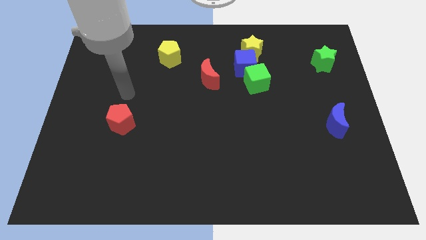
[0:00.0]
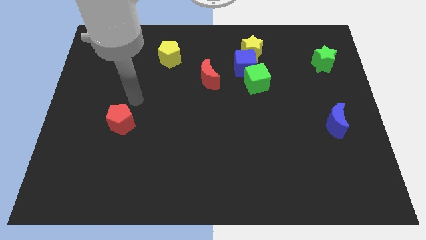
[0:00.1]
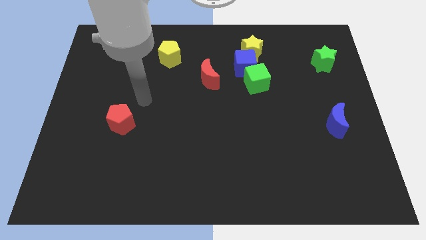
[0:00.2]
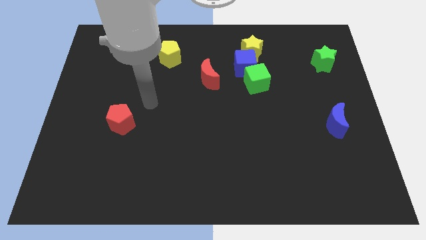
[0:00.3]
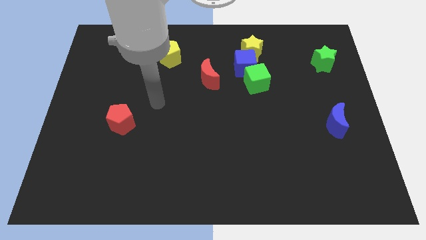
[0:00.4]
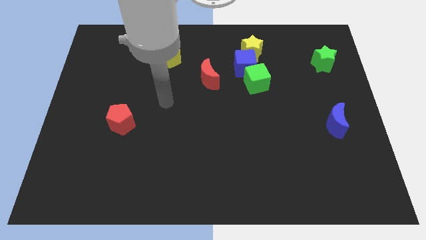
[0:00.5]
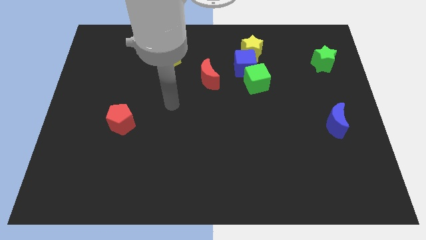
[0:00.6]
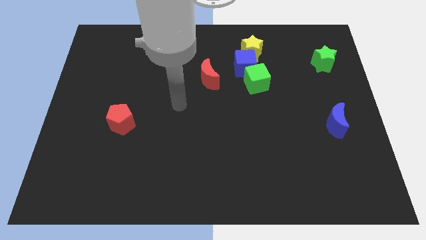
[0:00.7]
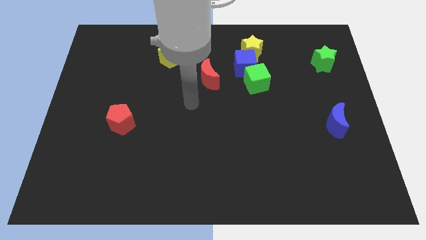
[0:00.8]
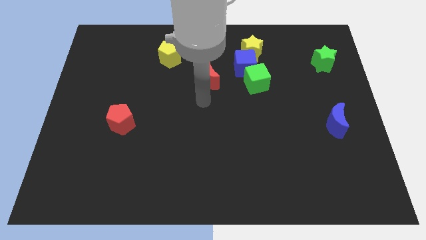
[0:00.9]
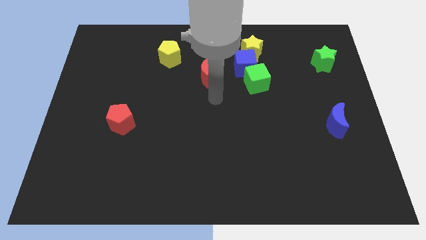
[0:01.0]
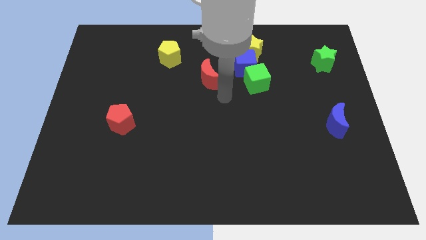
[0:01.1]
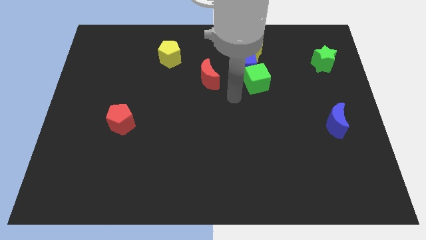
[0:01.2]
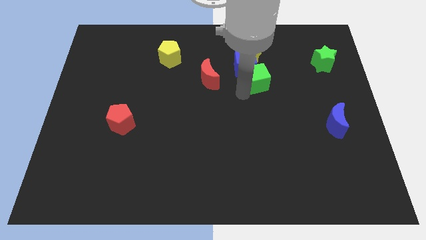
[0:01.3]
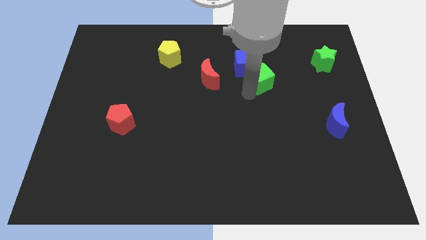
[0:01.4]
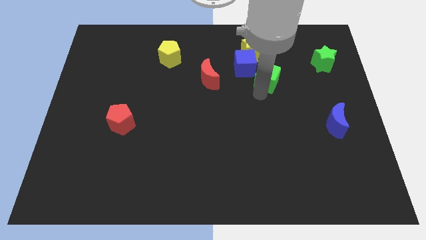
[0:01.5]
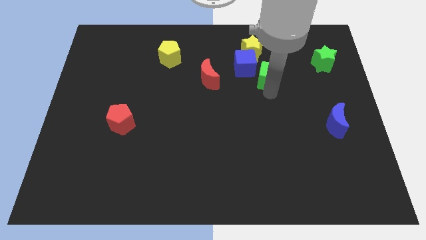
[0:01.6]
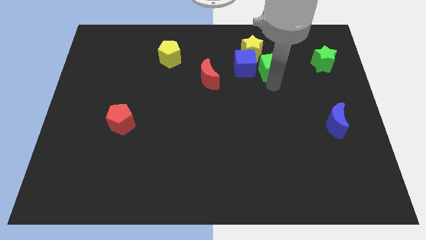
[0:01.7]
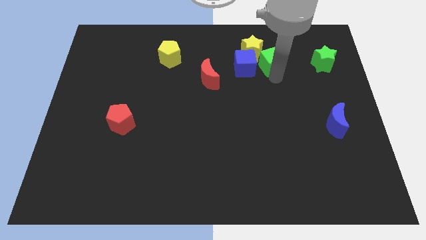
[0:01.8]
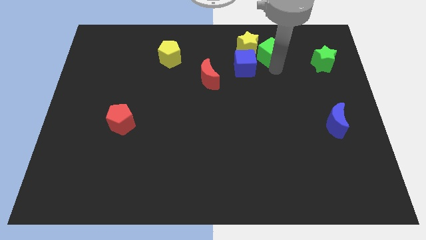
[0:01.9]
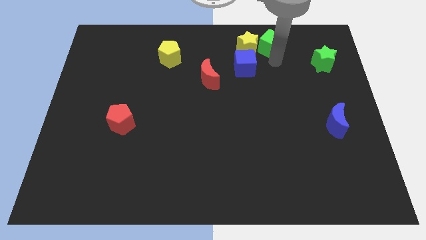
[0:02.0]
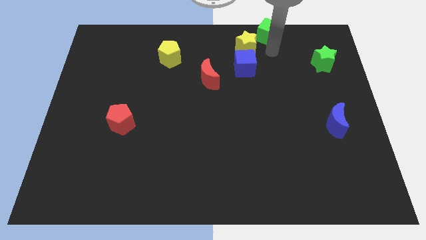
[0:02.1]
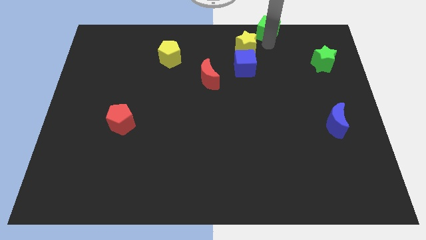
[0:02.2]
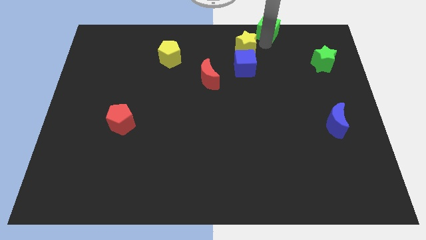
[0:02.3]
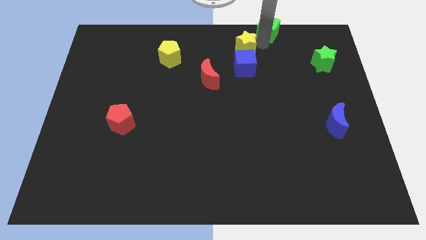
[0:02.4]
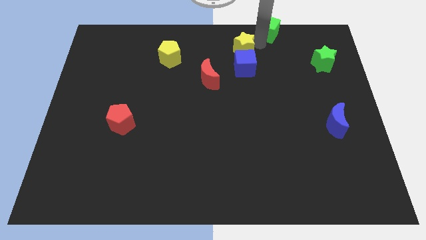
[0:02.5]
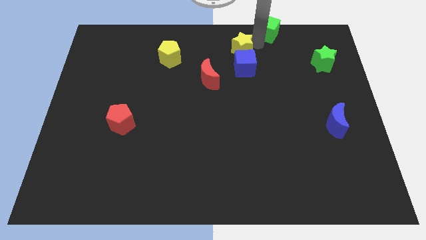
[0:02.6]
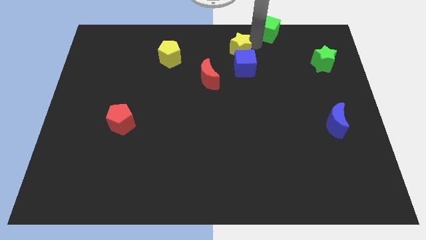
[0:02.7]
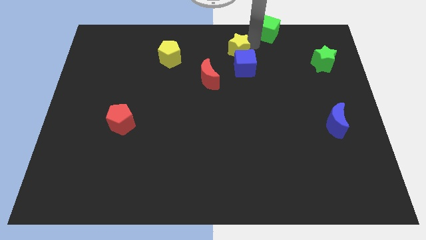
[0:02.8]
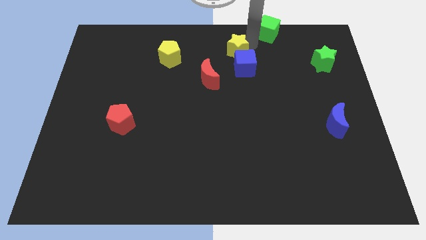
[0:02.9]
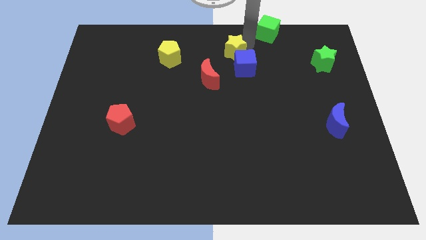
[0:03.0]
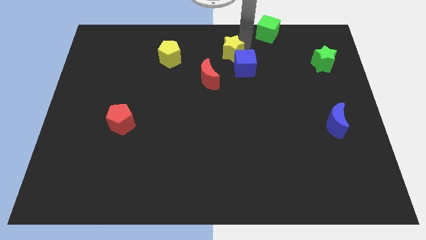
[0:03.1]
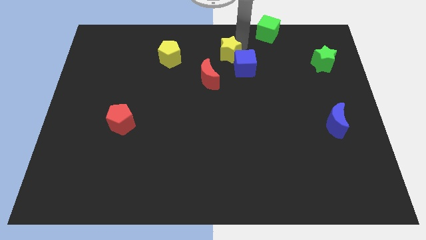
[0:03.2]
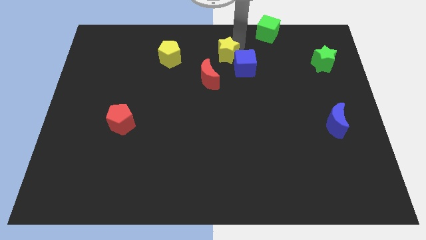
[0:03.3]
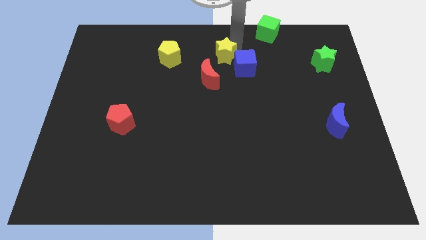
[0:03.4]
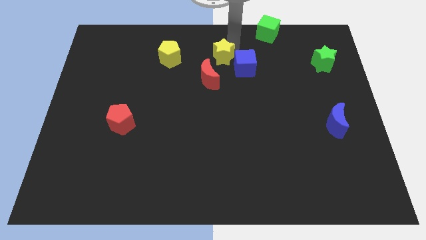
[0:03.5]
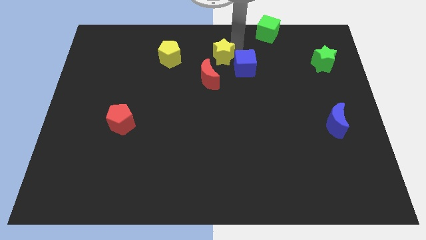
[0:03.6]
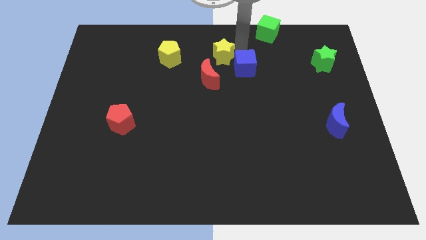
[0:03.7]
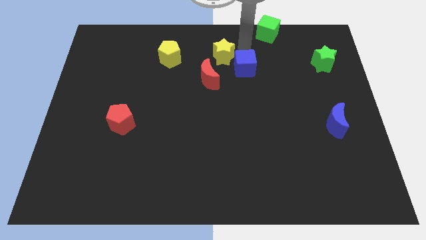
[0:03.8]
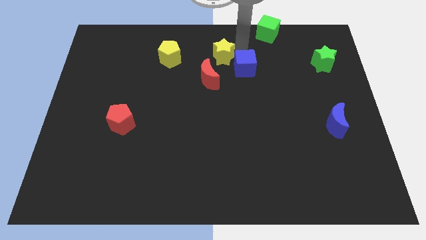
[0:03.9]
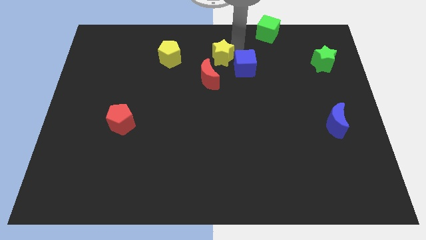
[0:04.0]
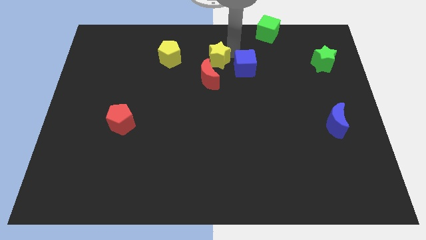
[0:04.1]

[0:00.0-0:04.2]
slightly slide the yellow star downwards and left diagonally

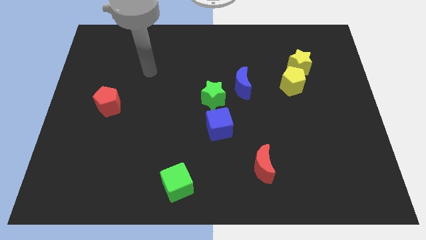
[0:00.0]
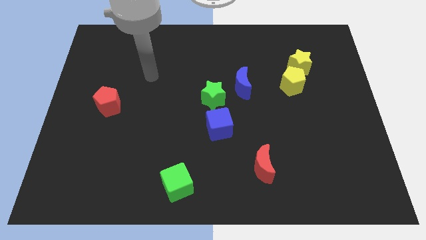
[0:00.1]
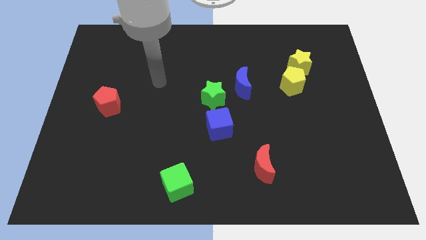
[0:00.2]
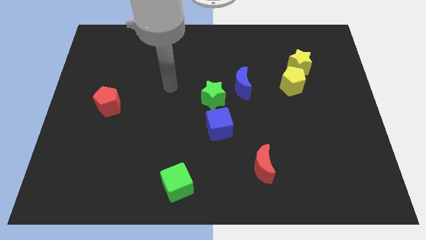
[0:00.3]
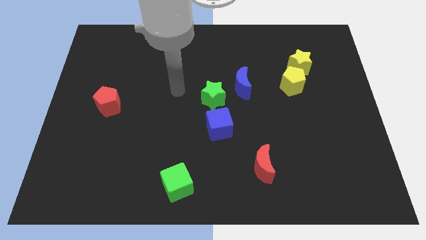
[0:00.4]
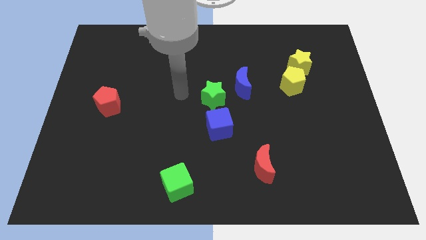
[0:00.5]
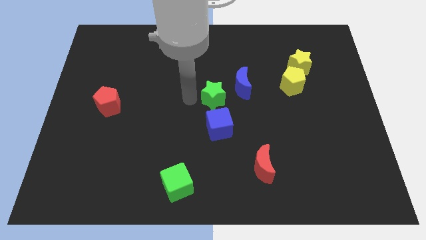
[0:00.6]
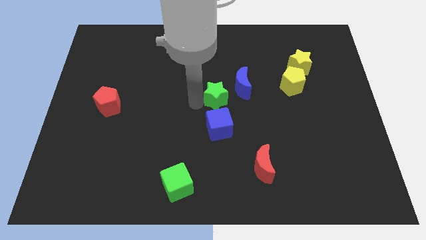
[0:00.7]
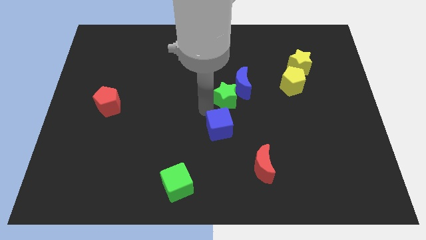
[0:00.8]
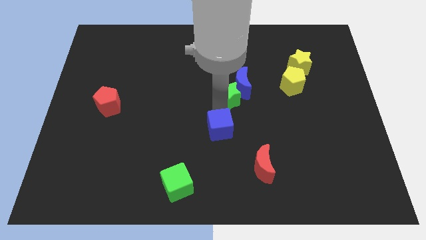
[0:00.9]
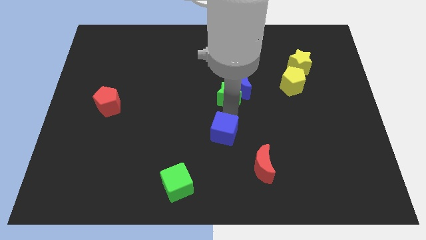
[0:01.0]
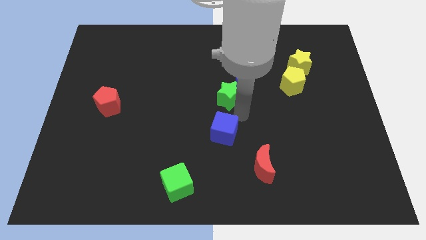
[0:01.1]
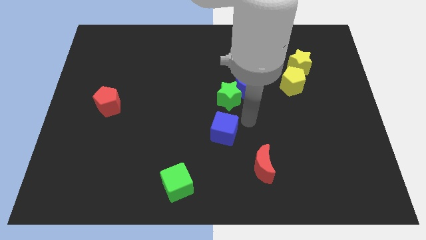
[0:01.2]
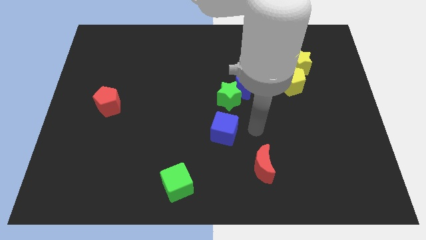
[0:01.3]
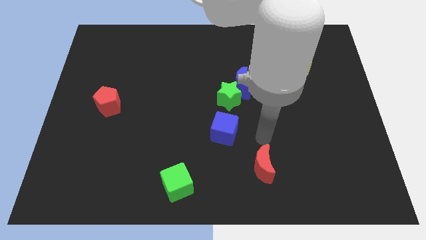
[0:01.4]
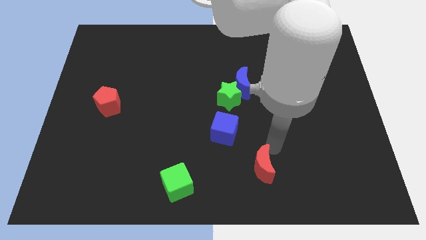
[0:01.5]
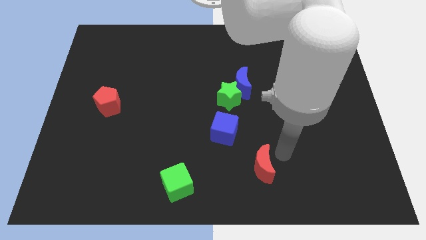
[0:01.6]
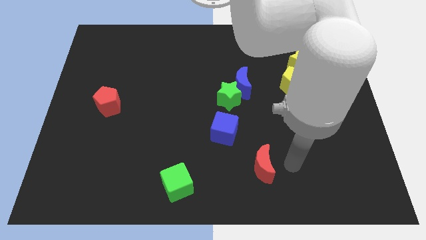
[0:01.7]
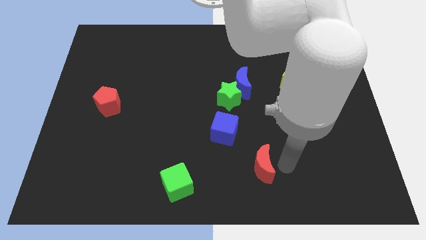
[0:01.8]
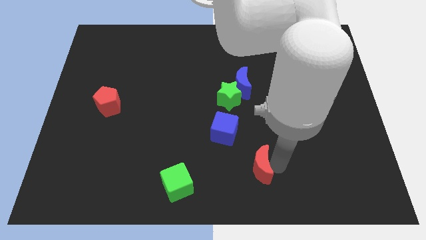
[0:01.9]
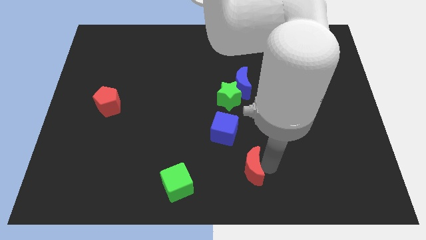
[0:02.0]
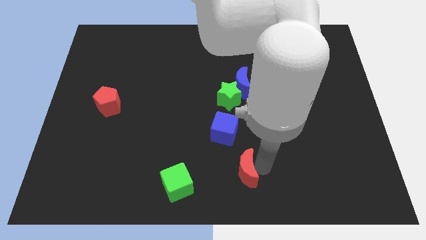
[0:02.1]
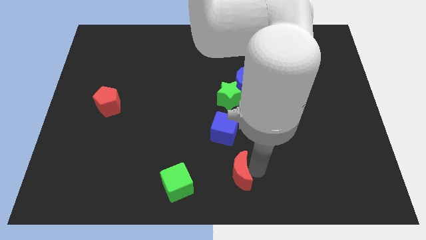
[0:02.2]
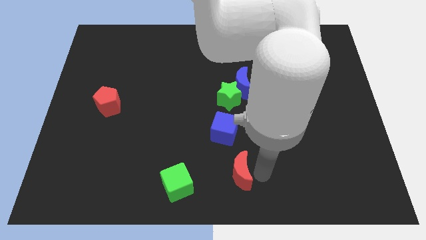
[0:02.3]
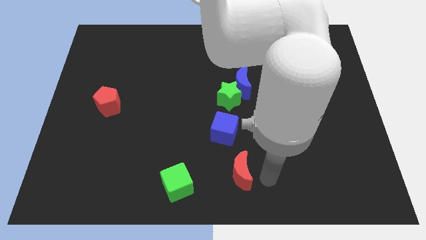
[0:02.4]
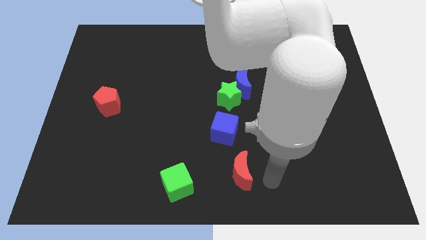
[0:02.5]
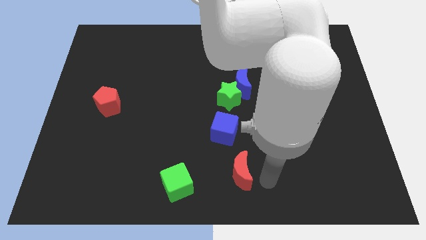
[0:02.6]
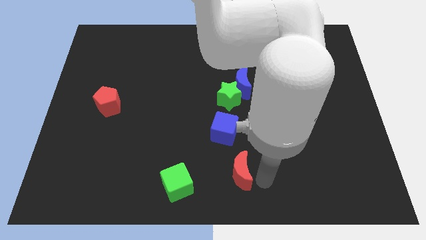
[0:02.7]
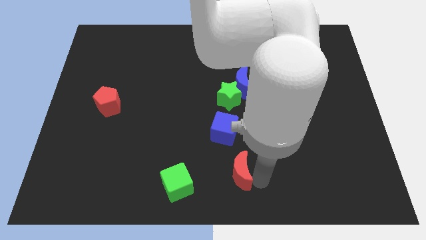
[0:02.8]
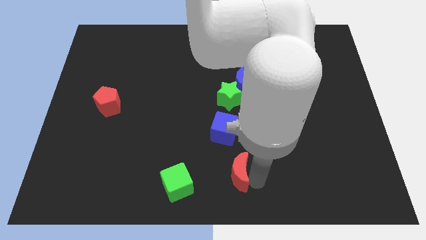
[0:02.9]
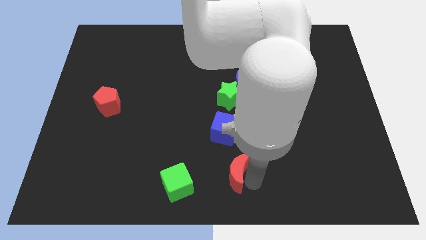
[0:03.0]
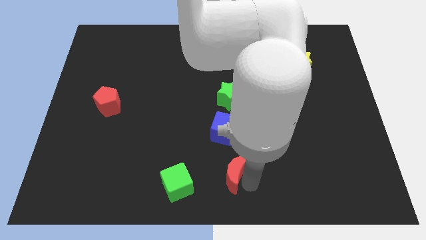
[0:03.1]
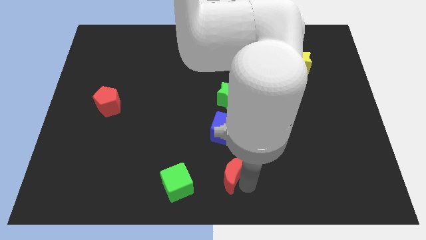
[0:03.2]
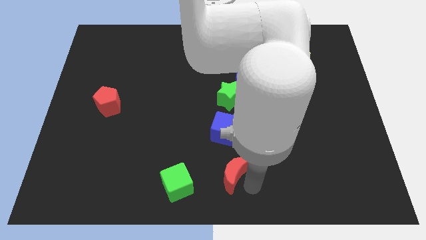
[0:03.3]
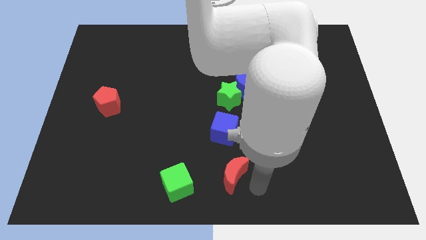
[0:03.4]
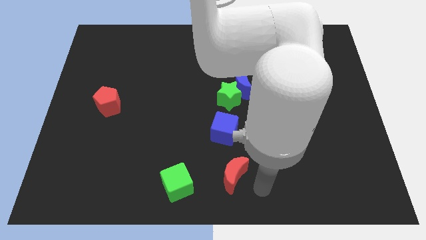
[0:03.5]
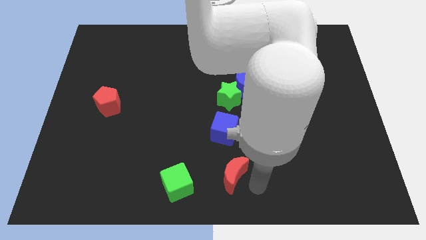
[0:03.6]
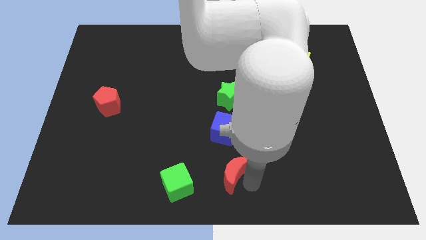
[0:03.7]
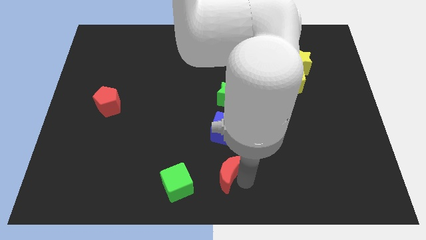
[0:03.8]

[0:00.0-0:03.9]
slightly slide the red moon to the left
